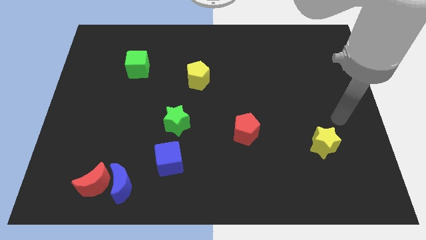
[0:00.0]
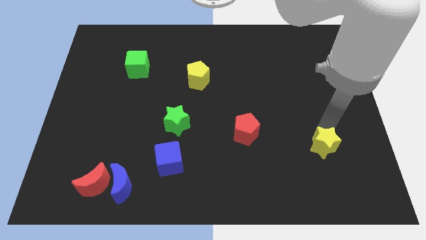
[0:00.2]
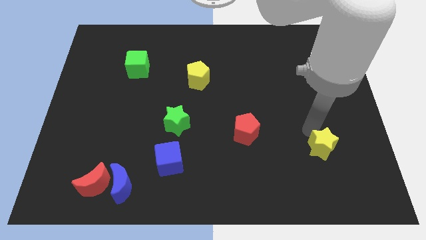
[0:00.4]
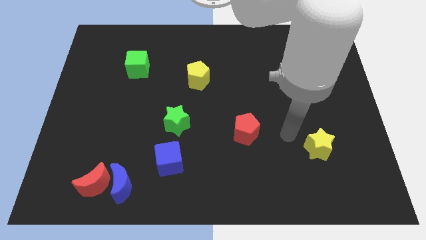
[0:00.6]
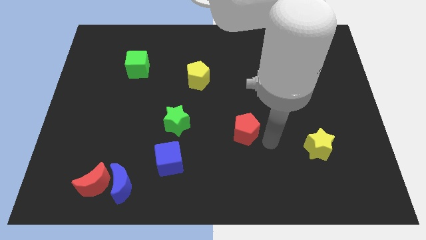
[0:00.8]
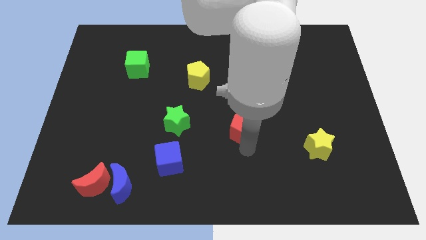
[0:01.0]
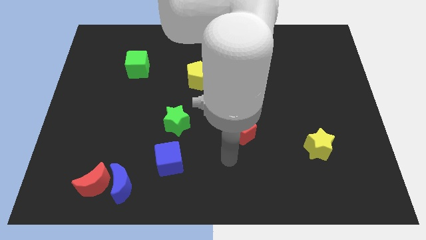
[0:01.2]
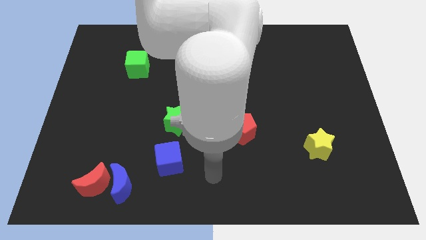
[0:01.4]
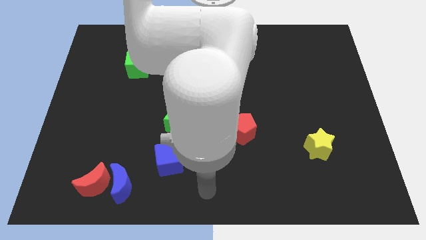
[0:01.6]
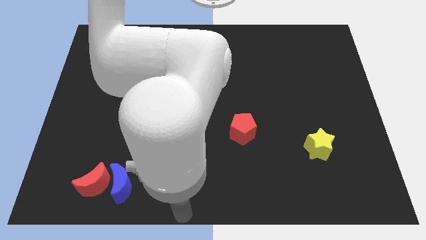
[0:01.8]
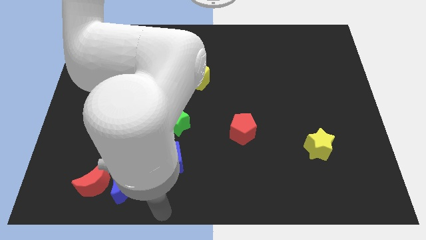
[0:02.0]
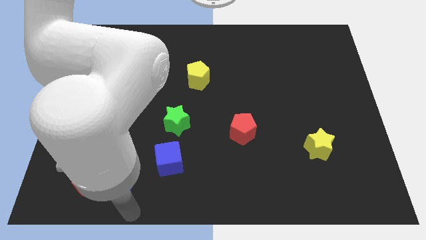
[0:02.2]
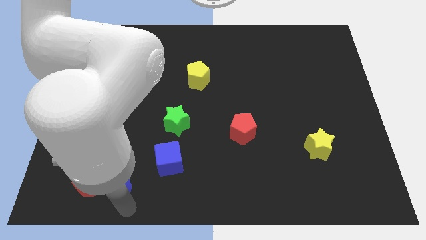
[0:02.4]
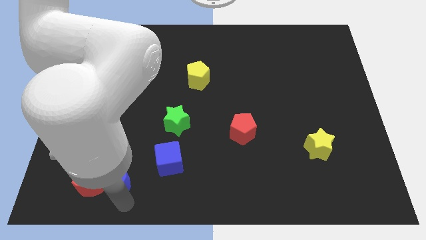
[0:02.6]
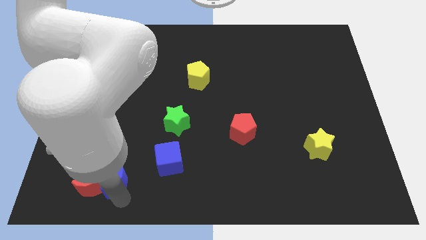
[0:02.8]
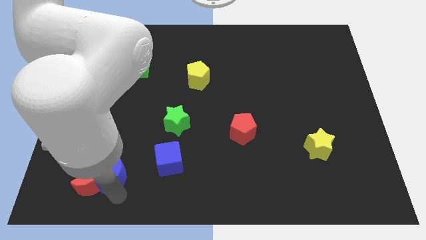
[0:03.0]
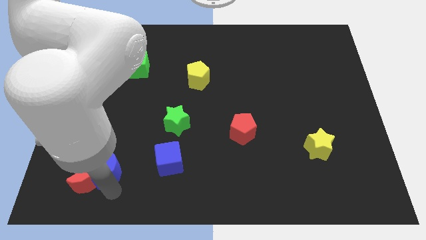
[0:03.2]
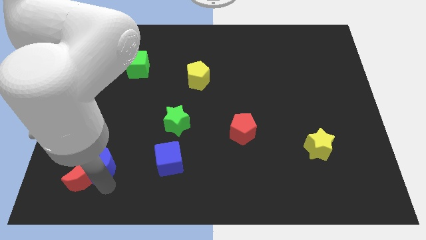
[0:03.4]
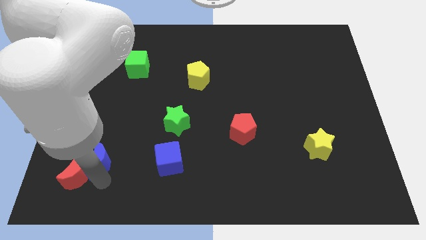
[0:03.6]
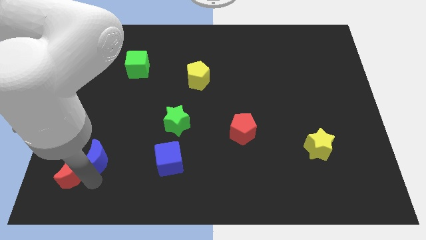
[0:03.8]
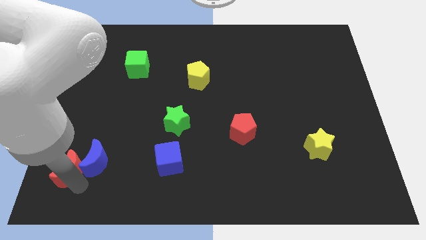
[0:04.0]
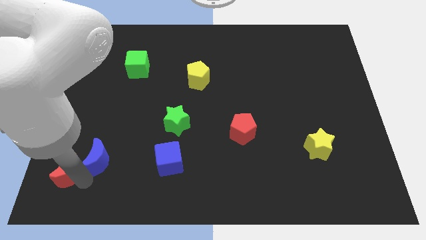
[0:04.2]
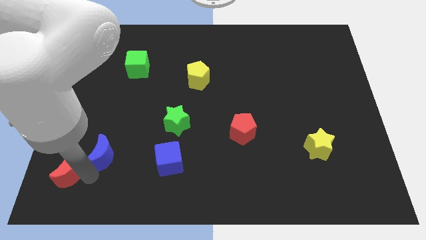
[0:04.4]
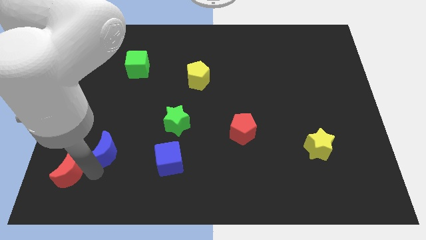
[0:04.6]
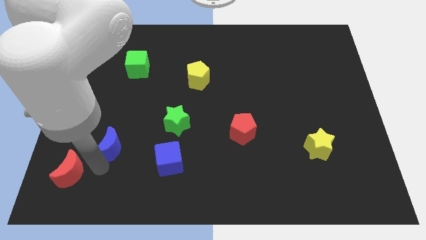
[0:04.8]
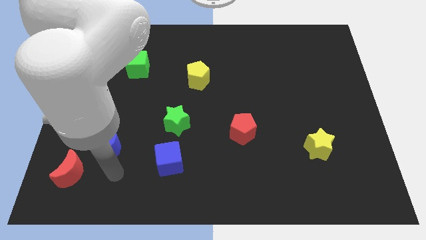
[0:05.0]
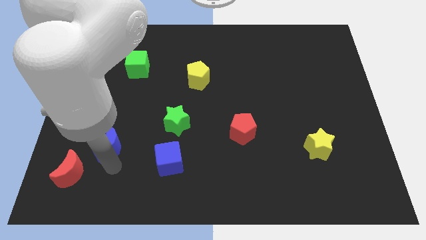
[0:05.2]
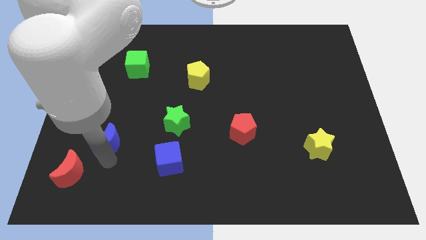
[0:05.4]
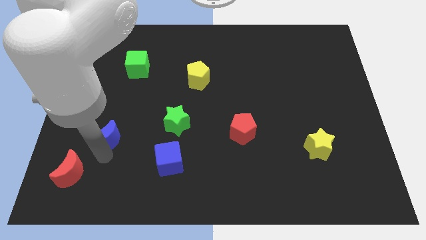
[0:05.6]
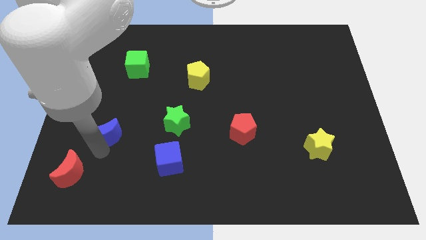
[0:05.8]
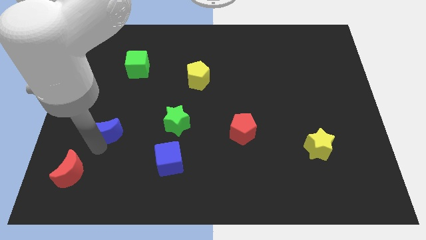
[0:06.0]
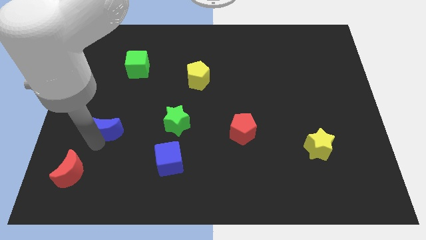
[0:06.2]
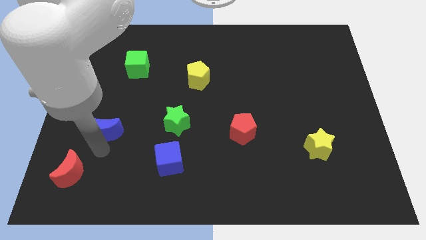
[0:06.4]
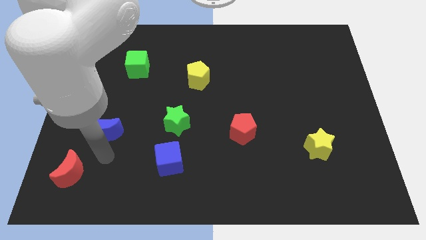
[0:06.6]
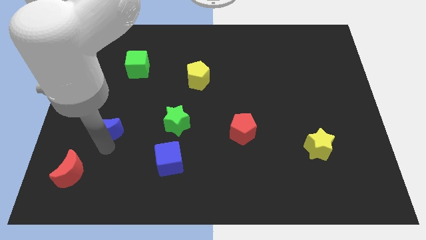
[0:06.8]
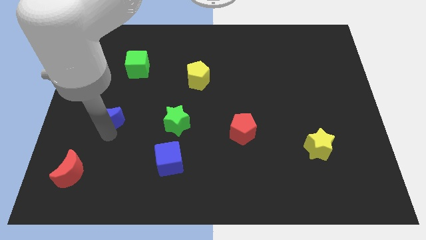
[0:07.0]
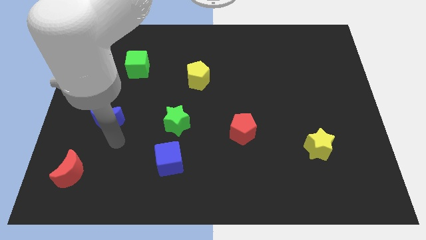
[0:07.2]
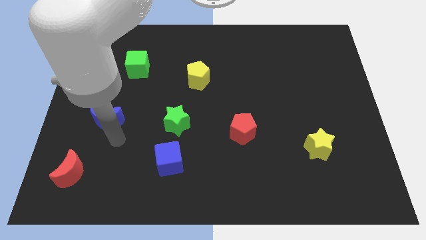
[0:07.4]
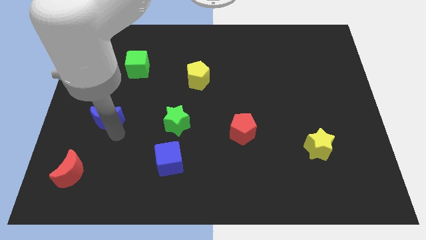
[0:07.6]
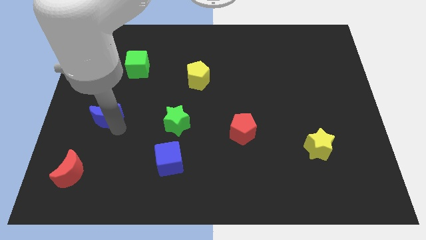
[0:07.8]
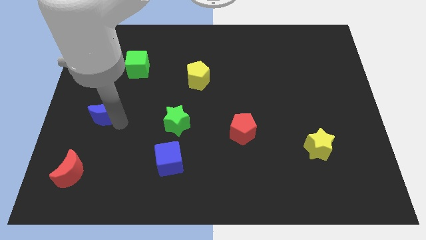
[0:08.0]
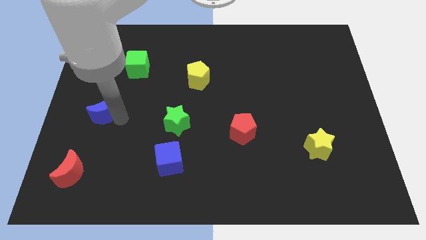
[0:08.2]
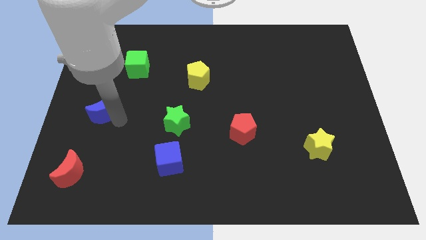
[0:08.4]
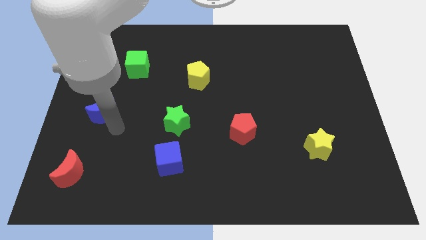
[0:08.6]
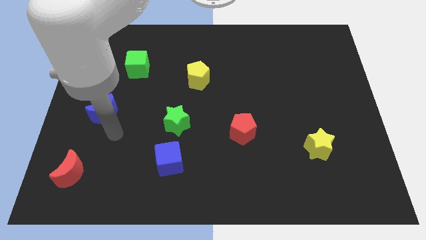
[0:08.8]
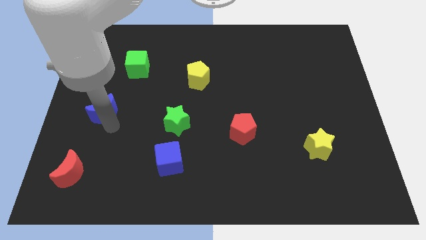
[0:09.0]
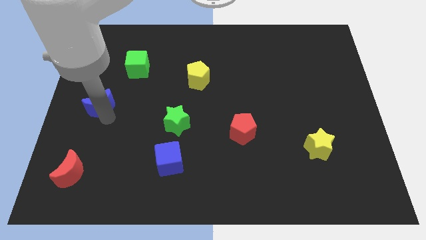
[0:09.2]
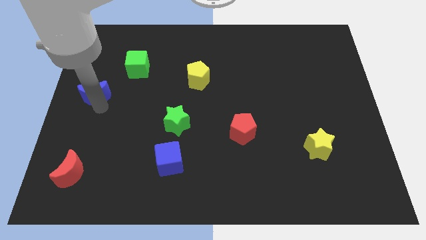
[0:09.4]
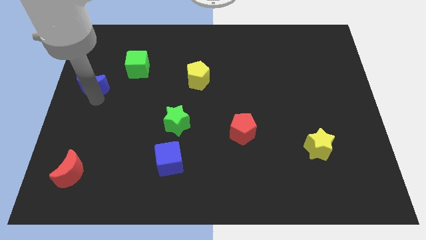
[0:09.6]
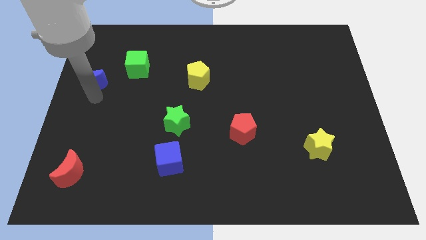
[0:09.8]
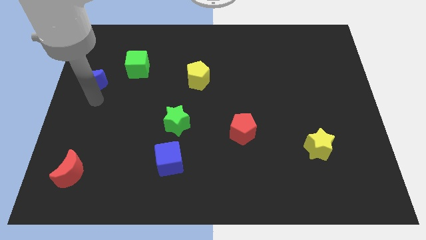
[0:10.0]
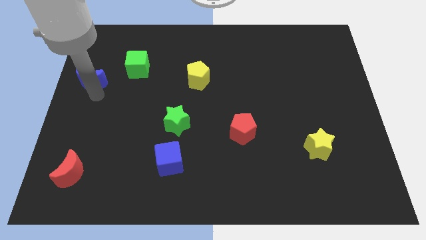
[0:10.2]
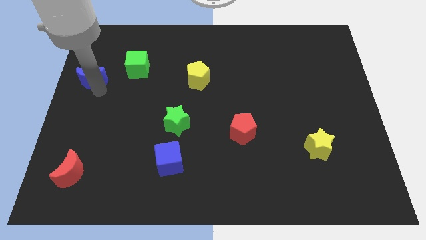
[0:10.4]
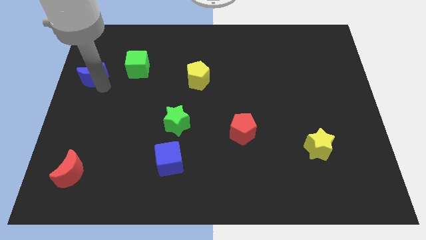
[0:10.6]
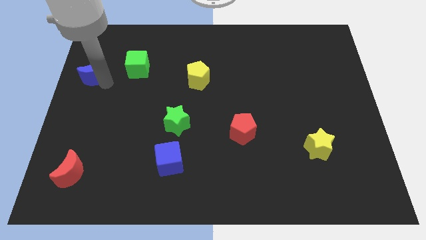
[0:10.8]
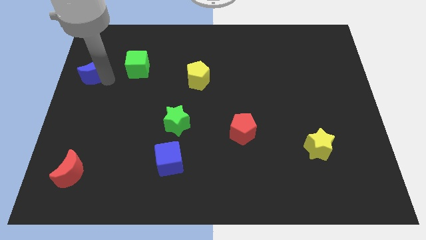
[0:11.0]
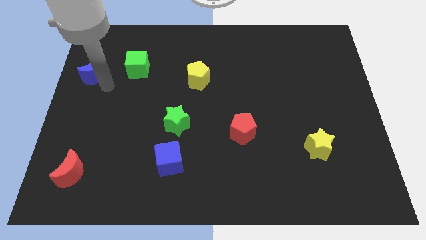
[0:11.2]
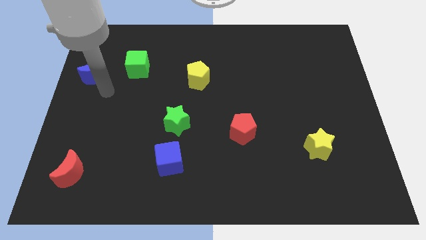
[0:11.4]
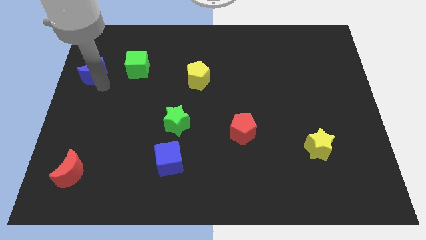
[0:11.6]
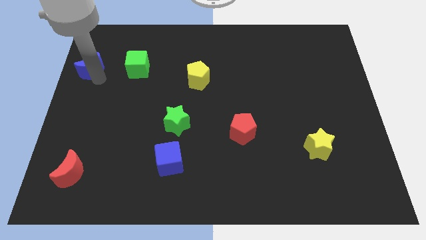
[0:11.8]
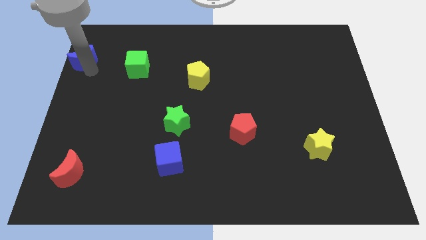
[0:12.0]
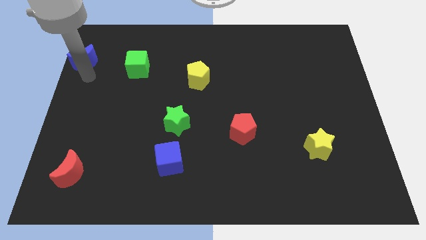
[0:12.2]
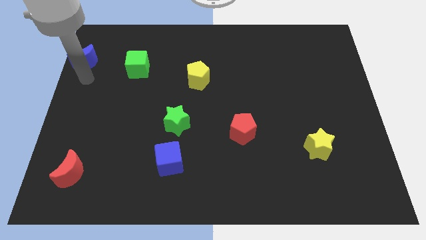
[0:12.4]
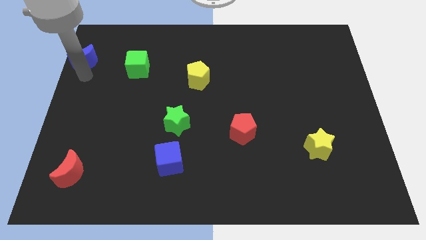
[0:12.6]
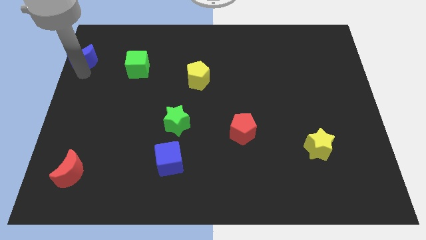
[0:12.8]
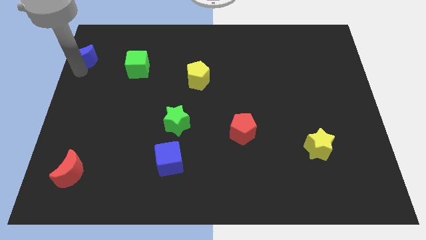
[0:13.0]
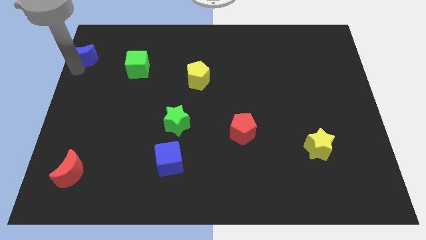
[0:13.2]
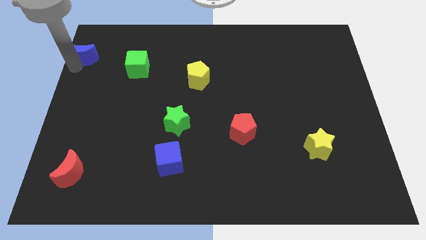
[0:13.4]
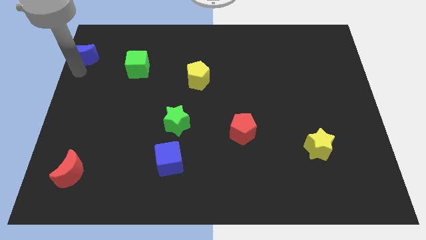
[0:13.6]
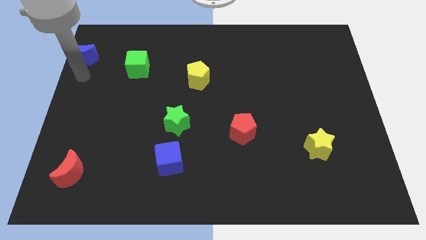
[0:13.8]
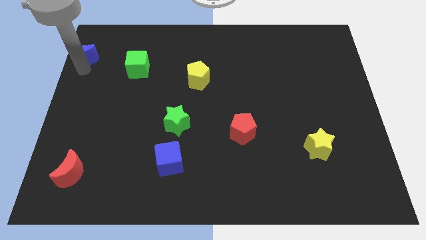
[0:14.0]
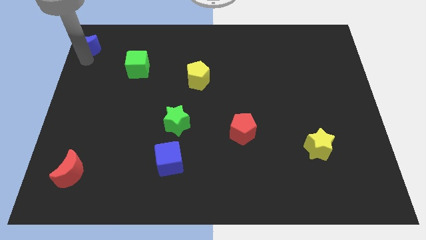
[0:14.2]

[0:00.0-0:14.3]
put the blue moon to the top left of the board

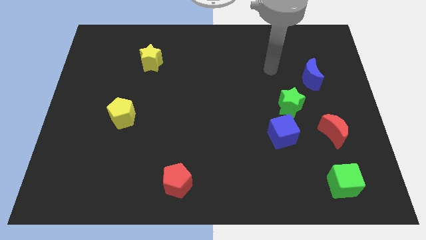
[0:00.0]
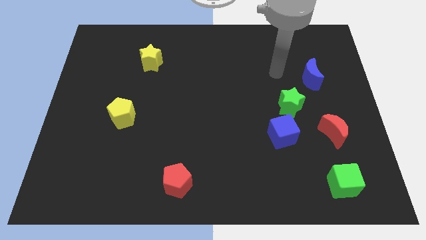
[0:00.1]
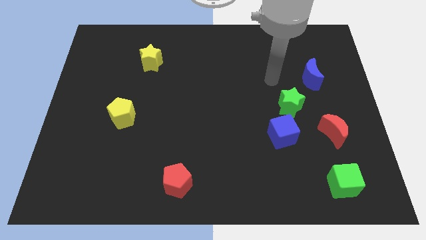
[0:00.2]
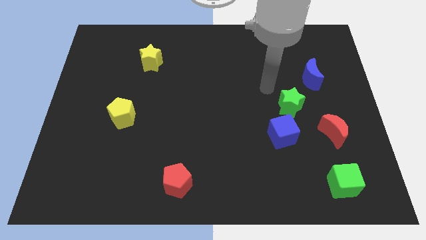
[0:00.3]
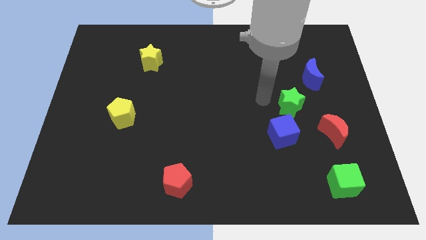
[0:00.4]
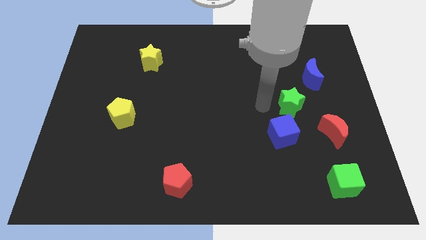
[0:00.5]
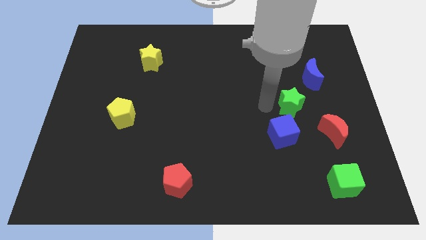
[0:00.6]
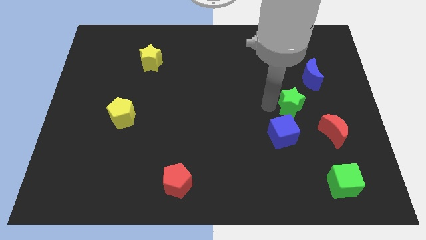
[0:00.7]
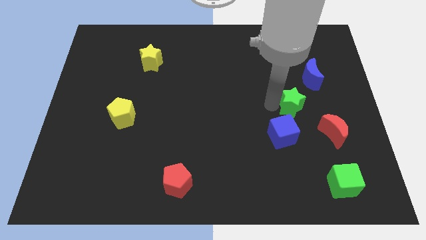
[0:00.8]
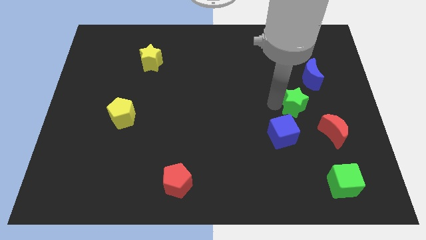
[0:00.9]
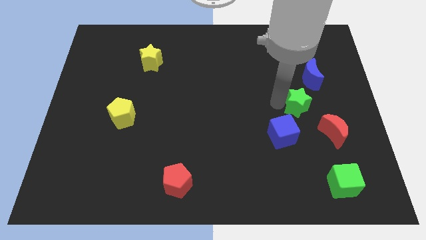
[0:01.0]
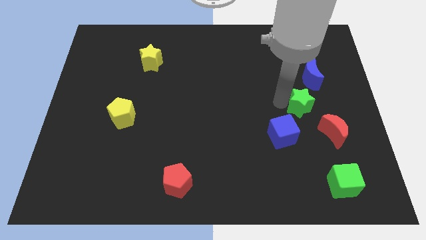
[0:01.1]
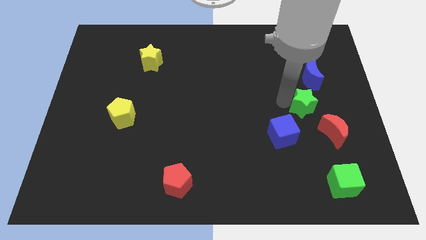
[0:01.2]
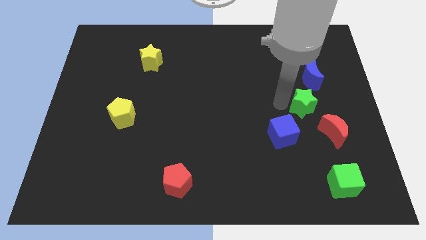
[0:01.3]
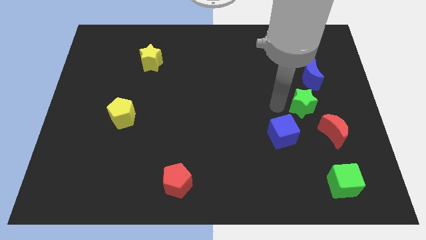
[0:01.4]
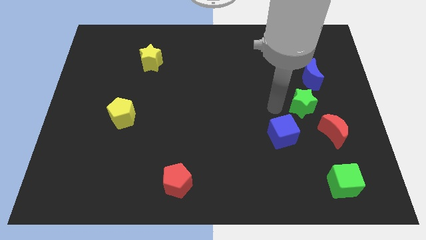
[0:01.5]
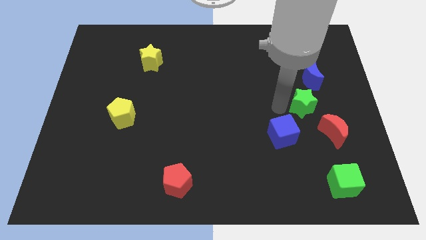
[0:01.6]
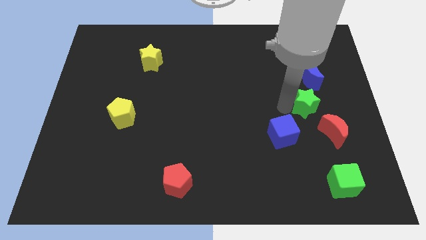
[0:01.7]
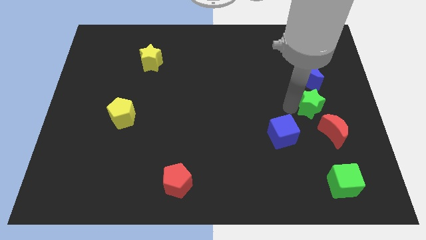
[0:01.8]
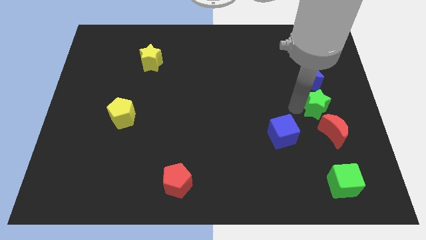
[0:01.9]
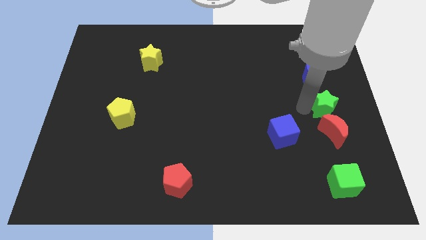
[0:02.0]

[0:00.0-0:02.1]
push the green star to the center right
